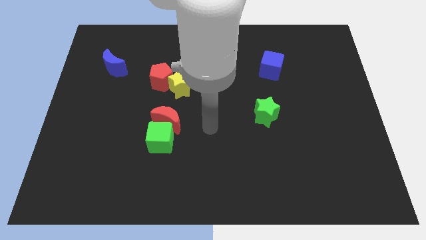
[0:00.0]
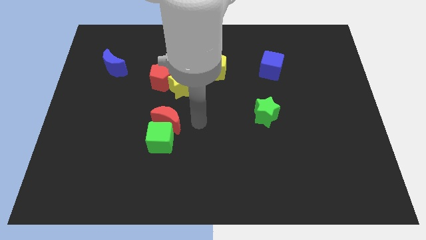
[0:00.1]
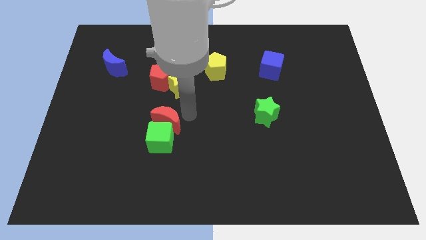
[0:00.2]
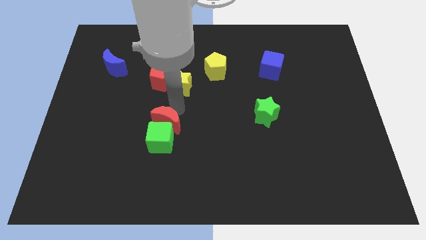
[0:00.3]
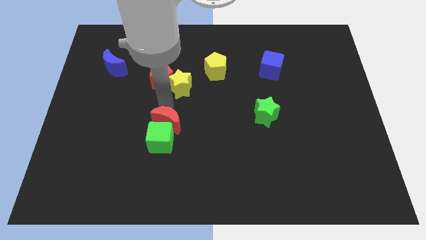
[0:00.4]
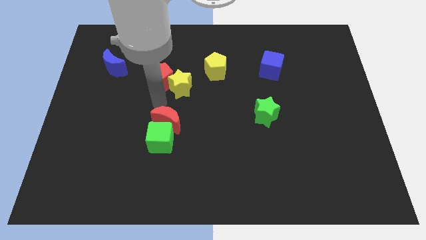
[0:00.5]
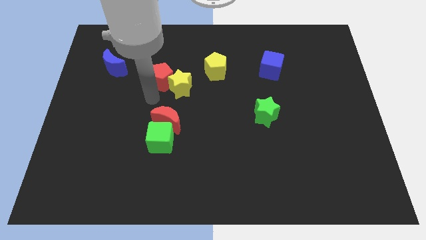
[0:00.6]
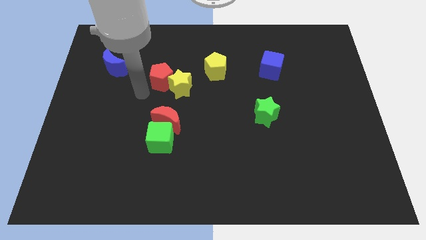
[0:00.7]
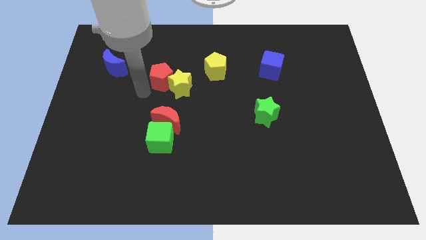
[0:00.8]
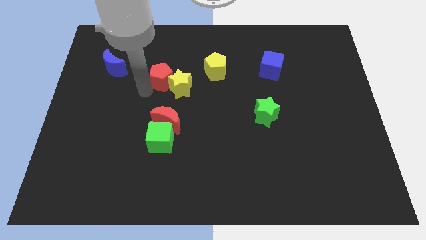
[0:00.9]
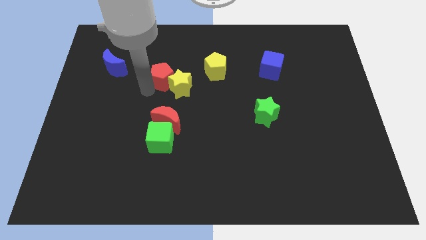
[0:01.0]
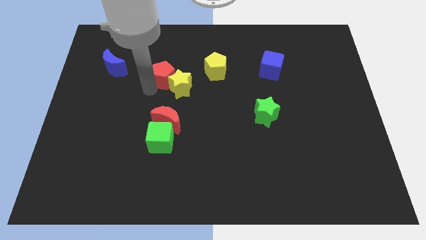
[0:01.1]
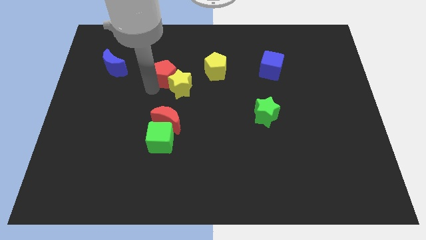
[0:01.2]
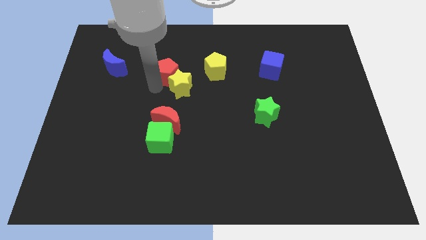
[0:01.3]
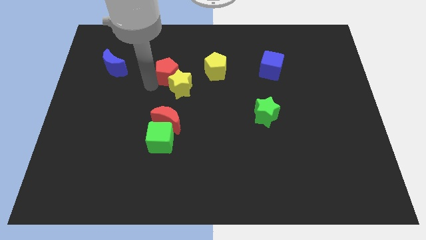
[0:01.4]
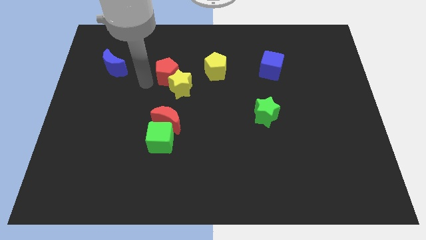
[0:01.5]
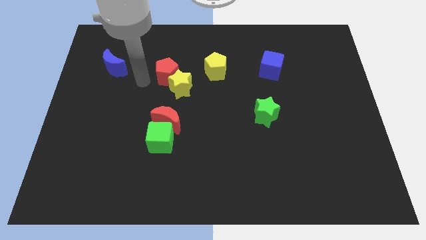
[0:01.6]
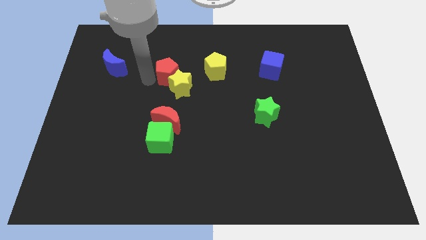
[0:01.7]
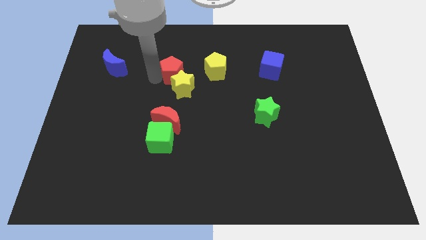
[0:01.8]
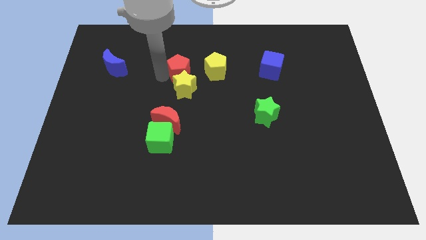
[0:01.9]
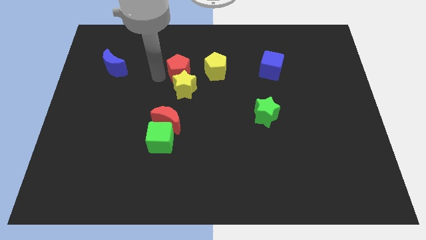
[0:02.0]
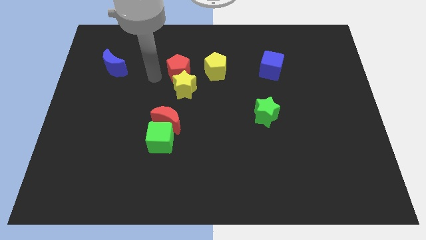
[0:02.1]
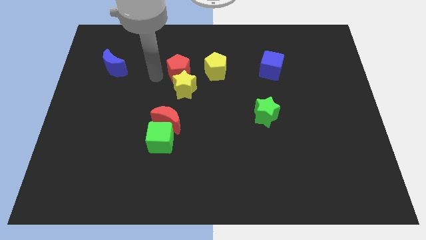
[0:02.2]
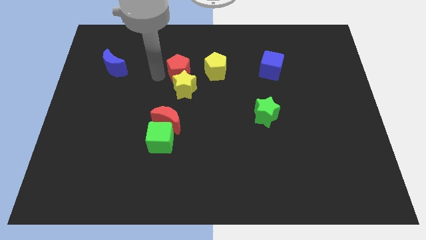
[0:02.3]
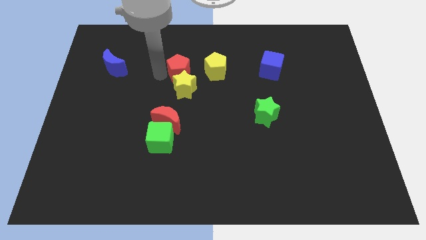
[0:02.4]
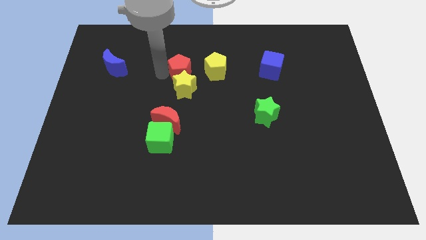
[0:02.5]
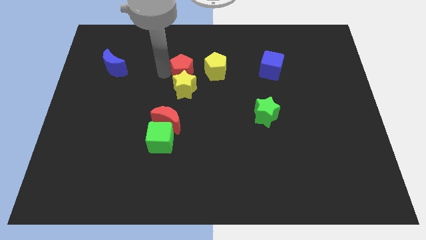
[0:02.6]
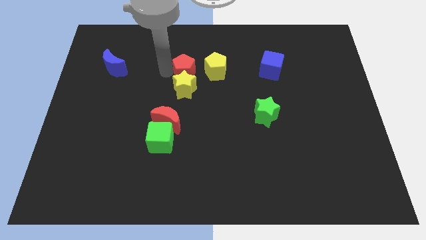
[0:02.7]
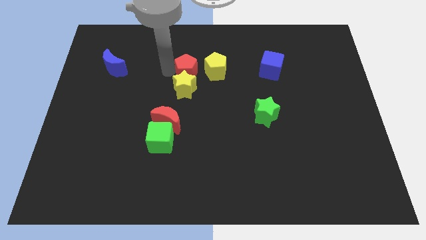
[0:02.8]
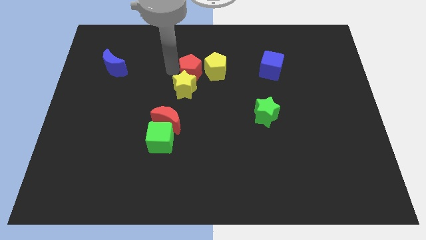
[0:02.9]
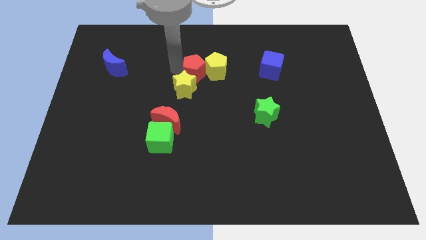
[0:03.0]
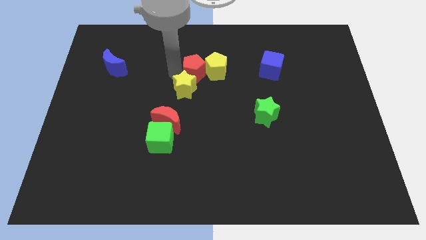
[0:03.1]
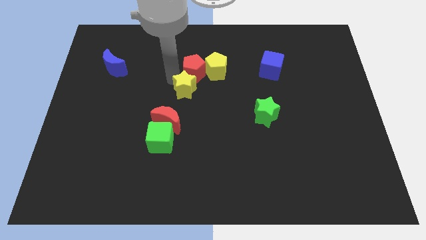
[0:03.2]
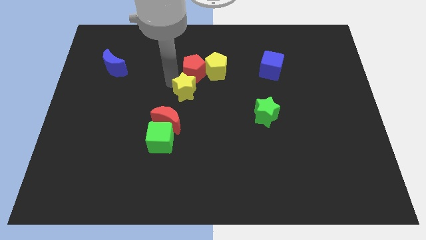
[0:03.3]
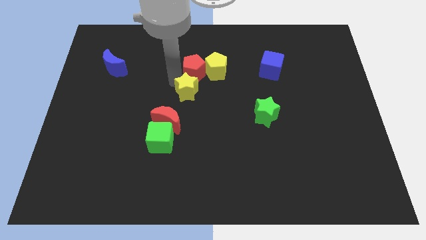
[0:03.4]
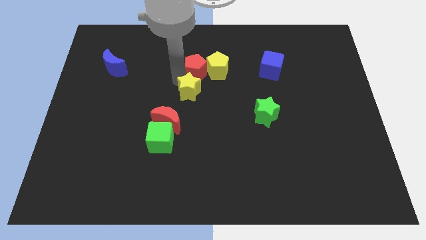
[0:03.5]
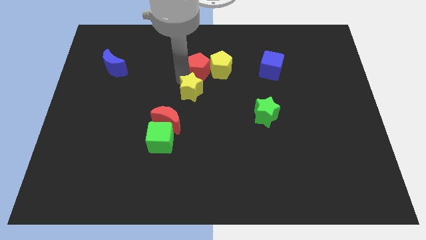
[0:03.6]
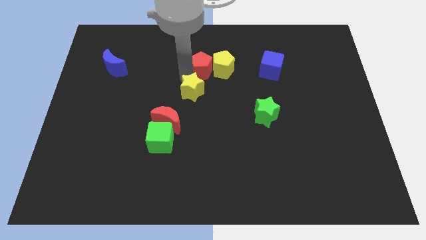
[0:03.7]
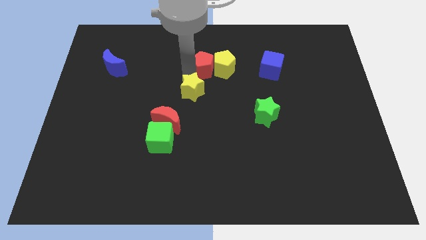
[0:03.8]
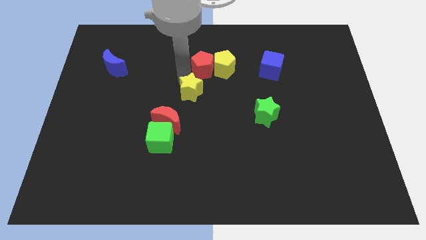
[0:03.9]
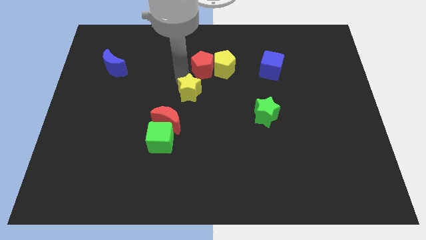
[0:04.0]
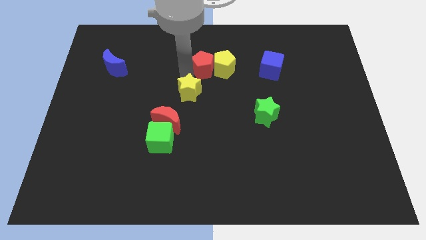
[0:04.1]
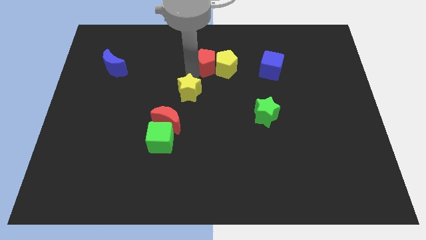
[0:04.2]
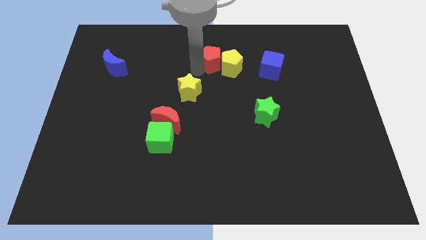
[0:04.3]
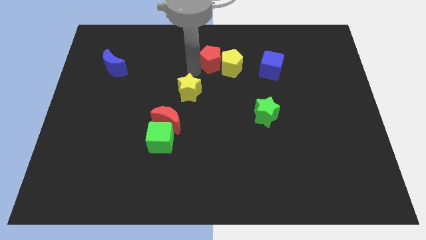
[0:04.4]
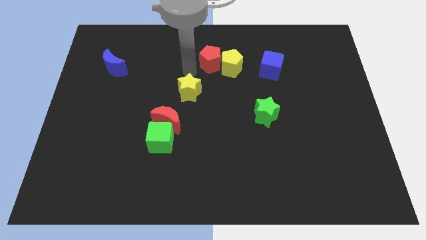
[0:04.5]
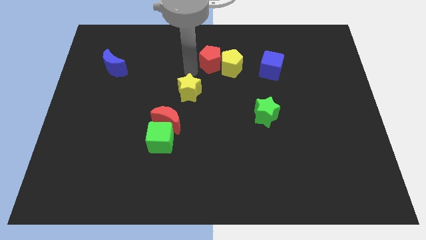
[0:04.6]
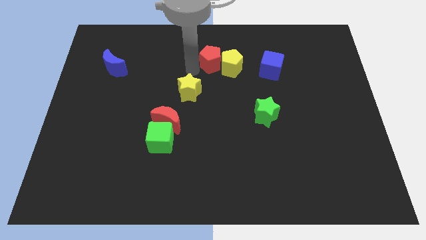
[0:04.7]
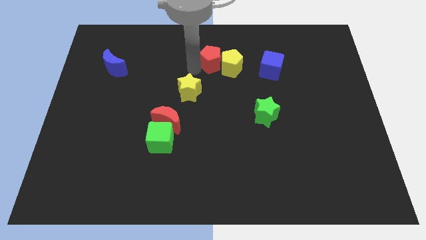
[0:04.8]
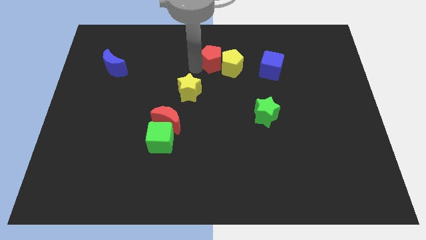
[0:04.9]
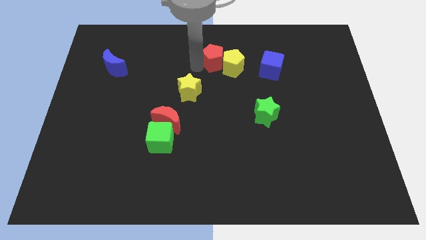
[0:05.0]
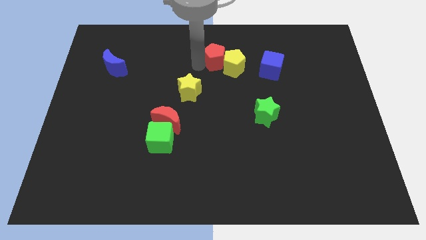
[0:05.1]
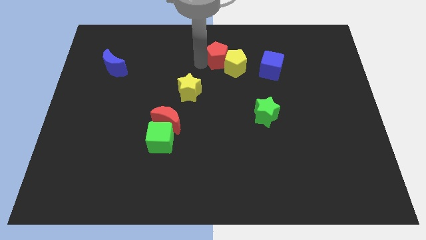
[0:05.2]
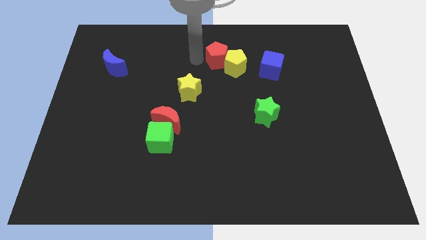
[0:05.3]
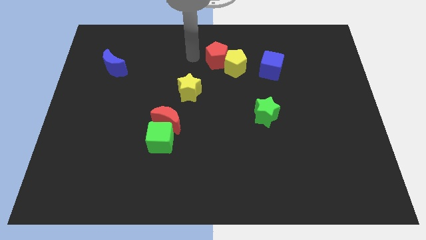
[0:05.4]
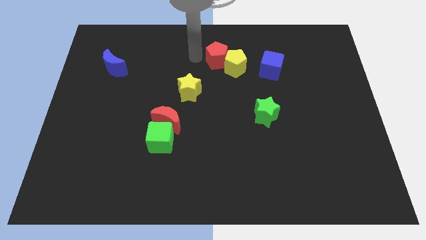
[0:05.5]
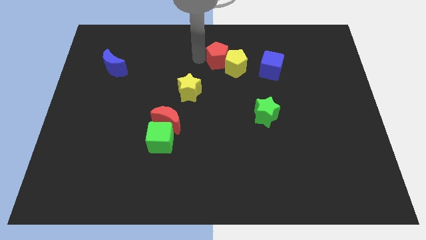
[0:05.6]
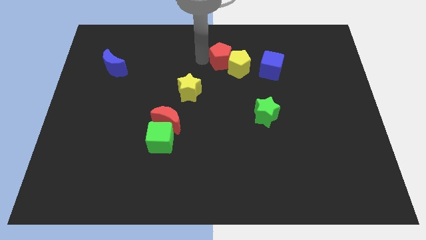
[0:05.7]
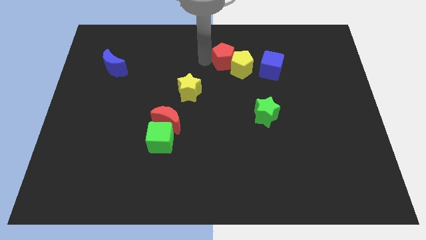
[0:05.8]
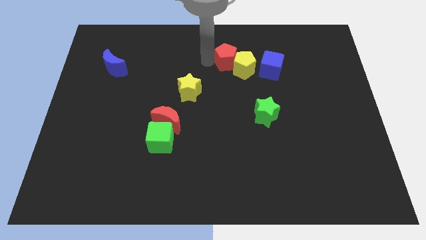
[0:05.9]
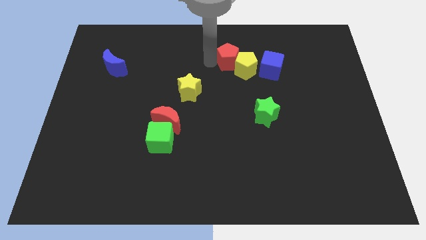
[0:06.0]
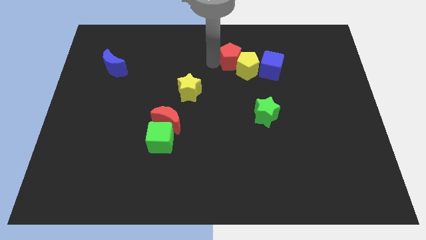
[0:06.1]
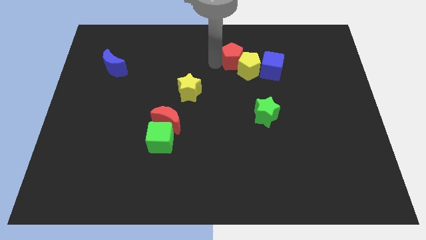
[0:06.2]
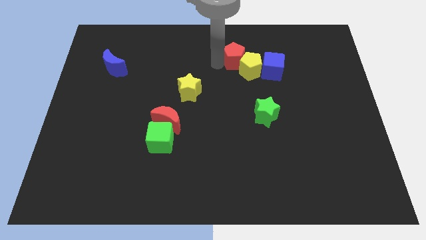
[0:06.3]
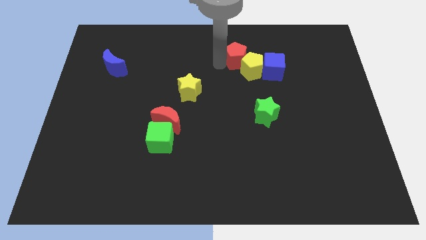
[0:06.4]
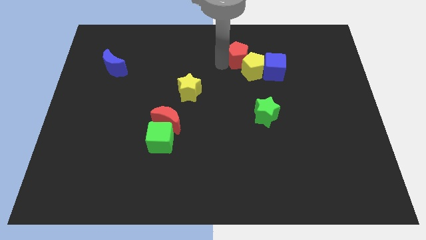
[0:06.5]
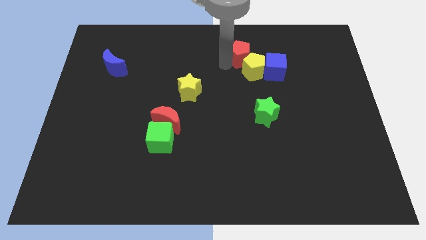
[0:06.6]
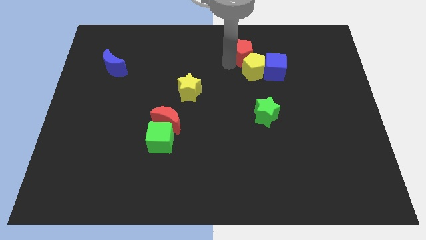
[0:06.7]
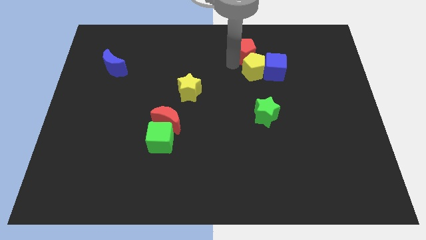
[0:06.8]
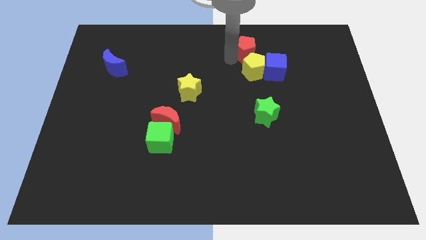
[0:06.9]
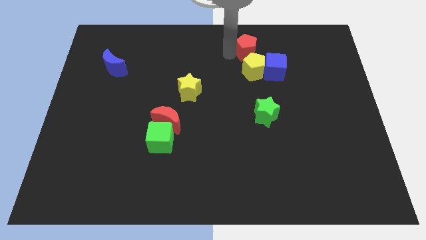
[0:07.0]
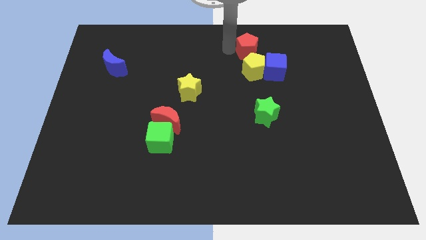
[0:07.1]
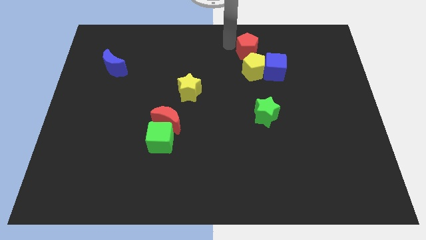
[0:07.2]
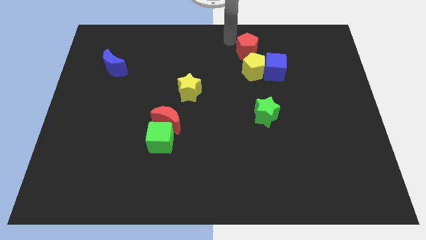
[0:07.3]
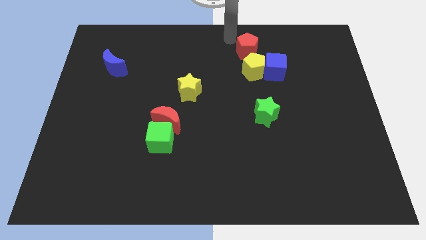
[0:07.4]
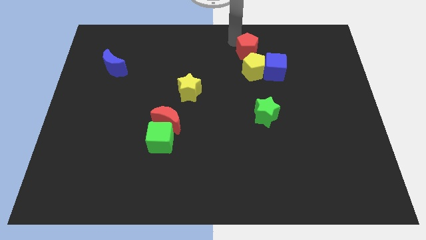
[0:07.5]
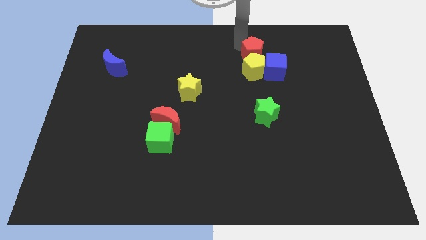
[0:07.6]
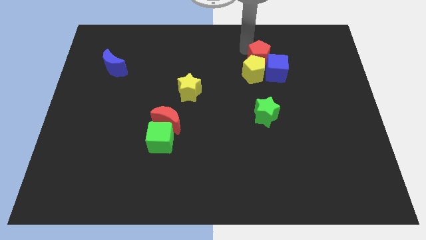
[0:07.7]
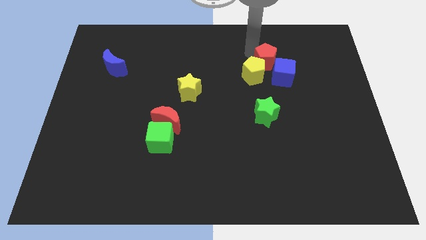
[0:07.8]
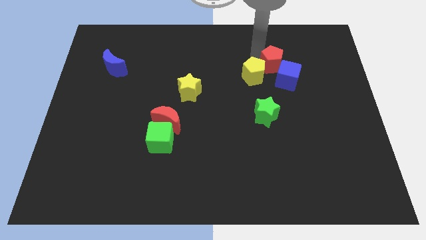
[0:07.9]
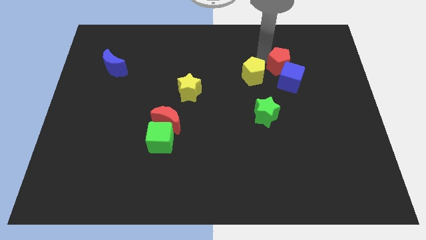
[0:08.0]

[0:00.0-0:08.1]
push the red pentagon to the blue cube
